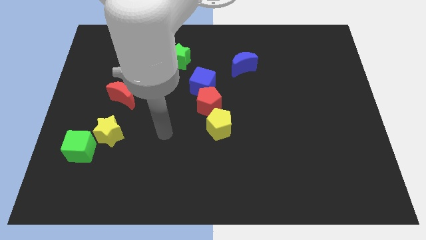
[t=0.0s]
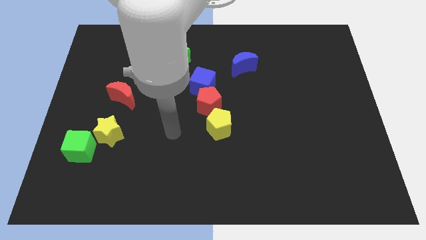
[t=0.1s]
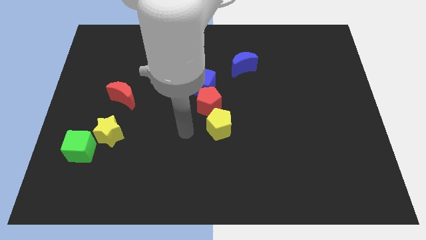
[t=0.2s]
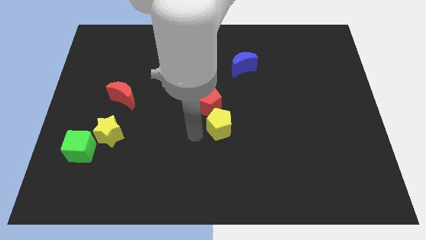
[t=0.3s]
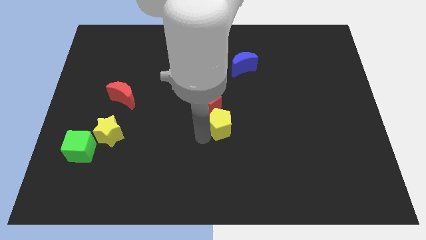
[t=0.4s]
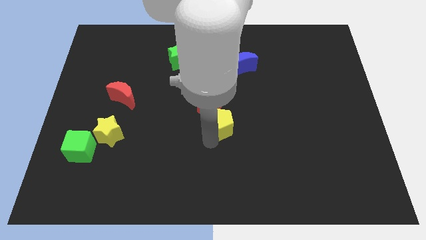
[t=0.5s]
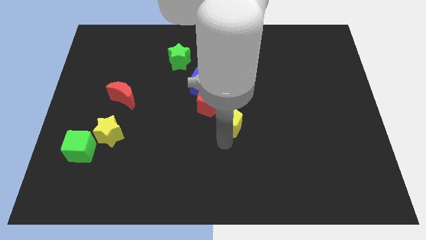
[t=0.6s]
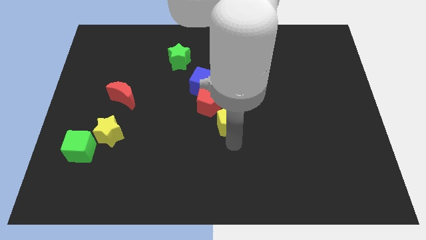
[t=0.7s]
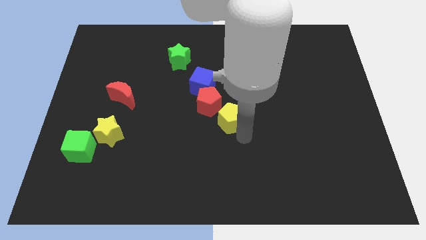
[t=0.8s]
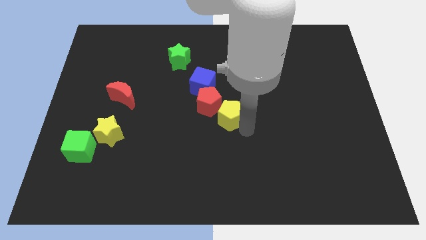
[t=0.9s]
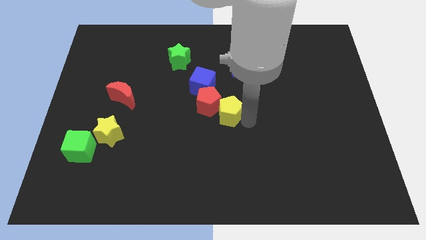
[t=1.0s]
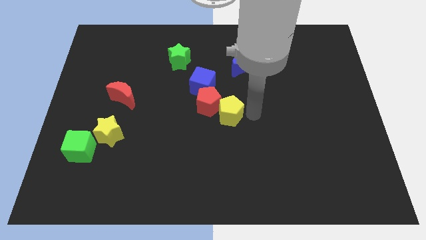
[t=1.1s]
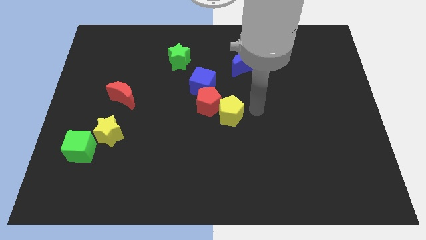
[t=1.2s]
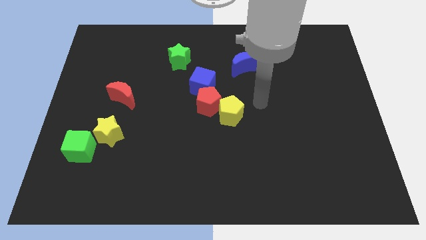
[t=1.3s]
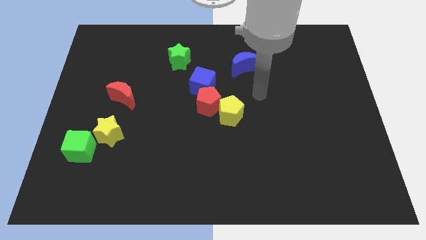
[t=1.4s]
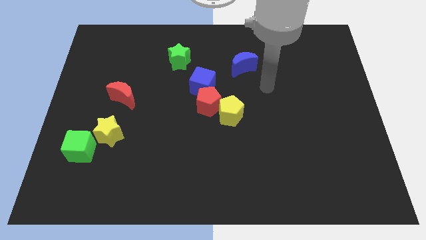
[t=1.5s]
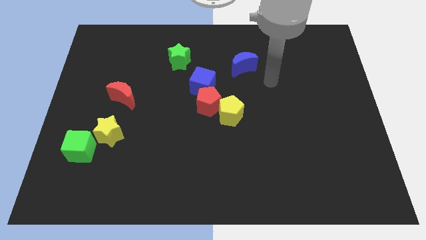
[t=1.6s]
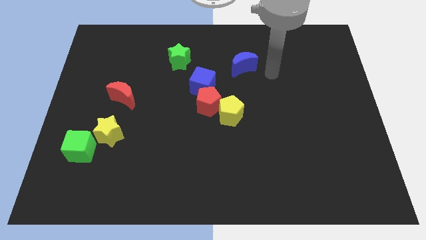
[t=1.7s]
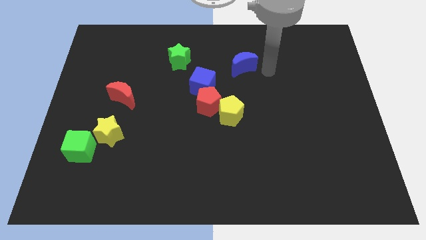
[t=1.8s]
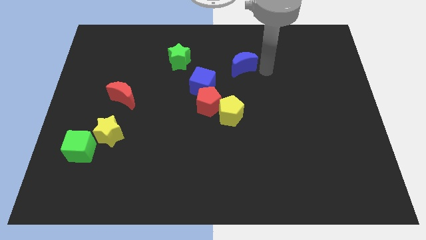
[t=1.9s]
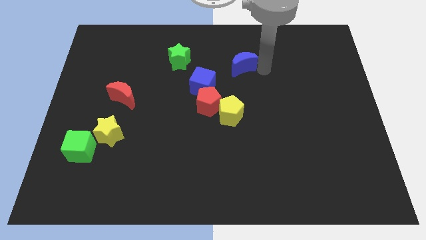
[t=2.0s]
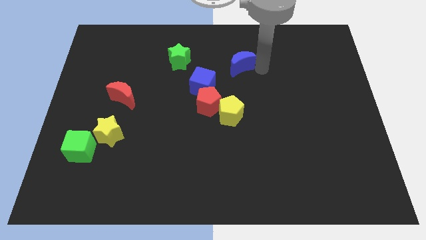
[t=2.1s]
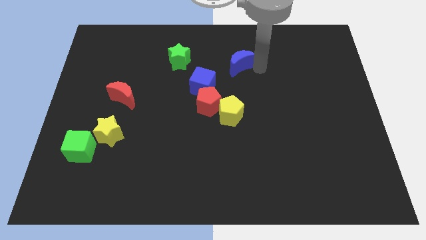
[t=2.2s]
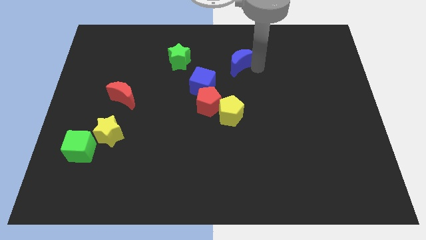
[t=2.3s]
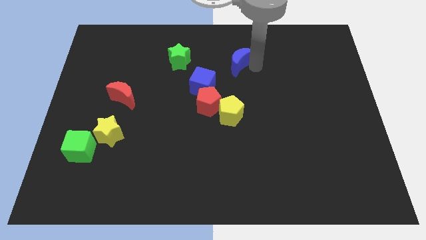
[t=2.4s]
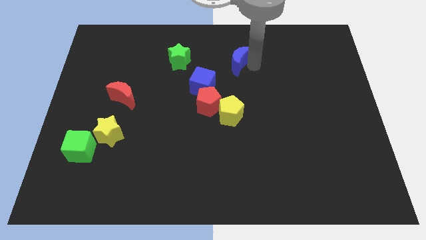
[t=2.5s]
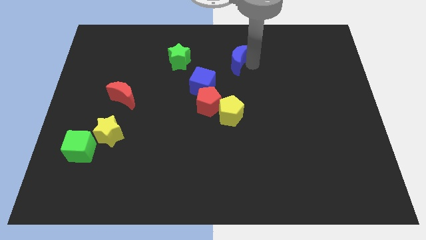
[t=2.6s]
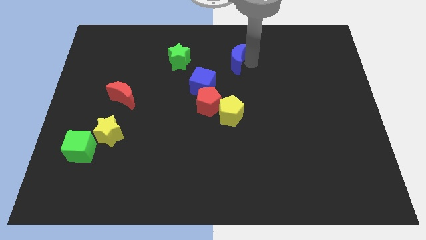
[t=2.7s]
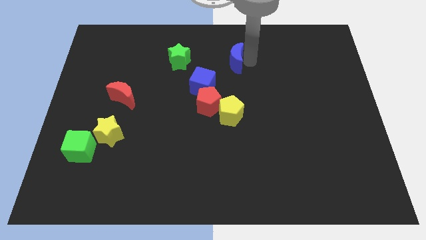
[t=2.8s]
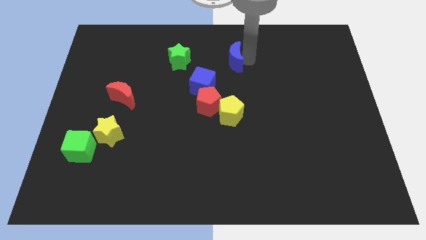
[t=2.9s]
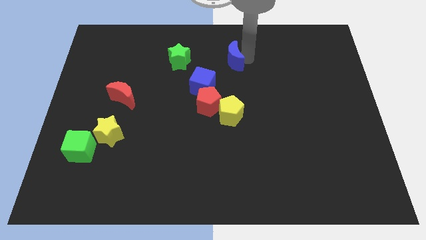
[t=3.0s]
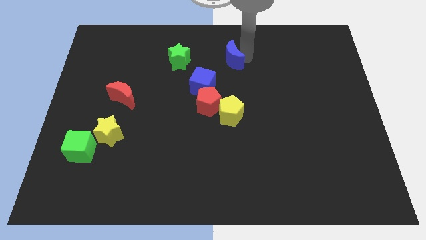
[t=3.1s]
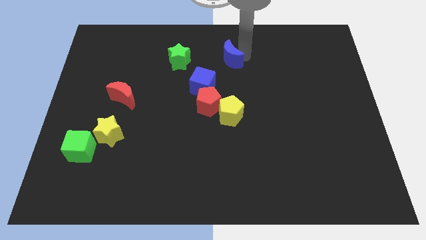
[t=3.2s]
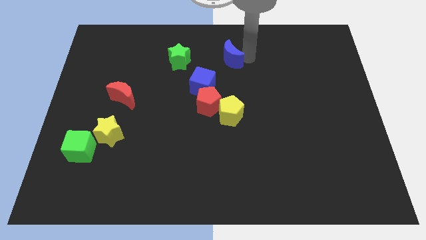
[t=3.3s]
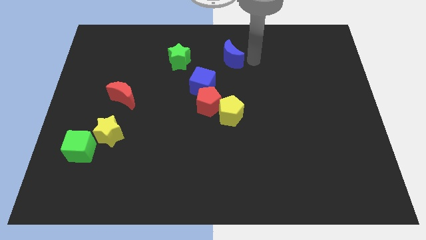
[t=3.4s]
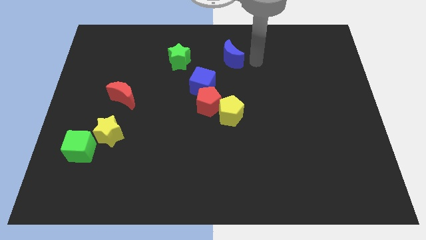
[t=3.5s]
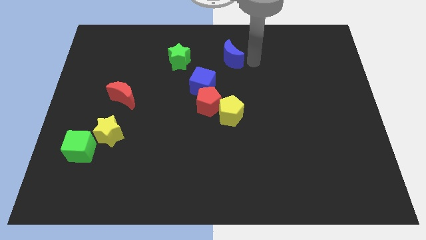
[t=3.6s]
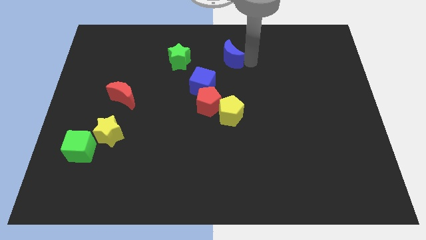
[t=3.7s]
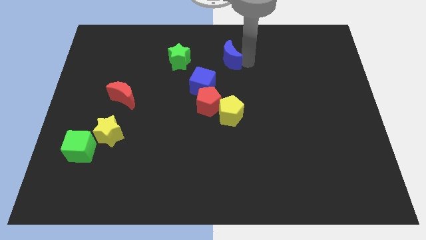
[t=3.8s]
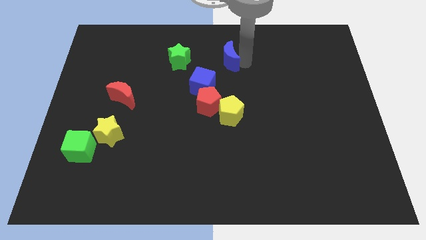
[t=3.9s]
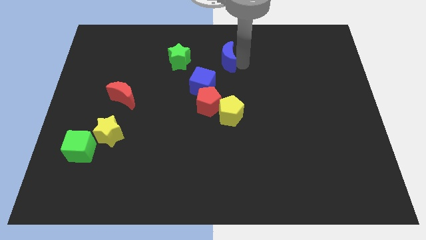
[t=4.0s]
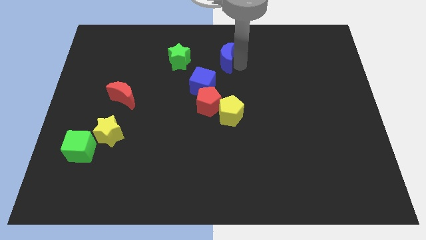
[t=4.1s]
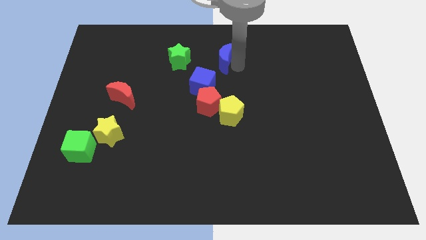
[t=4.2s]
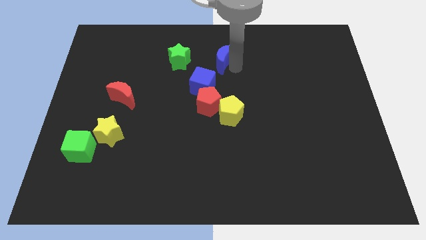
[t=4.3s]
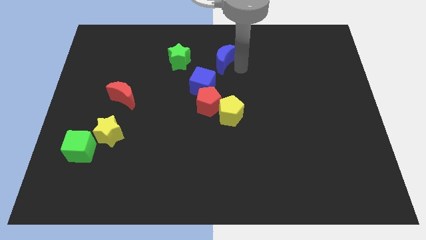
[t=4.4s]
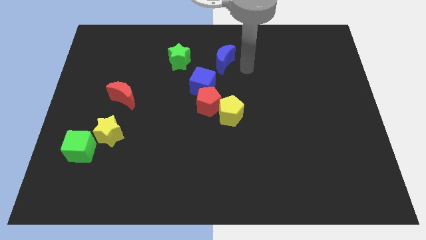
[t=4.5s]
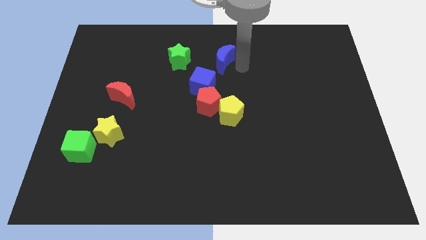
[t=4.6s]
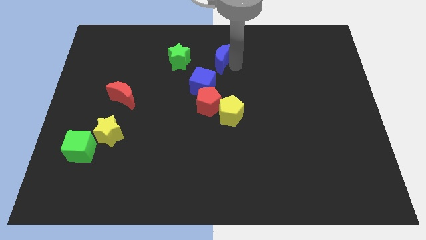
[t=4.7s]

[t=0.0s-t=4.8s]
slide the blue moon above the blue cube

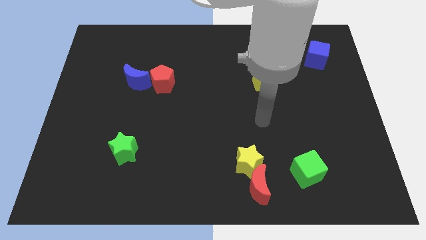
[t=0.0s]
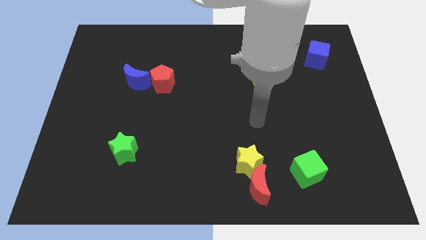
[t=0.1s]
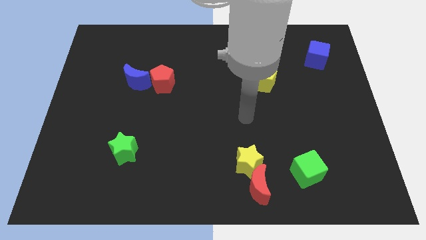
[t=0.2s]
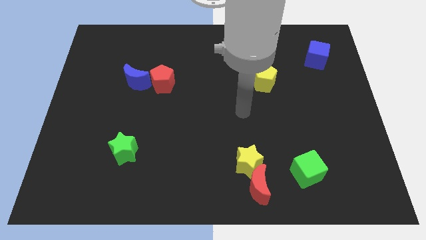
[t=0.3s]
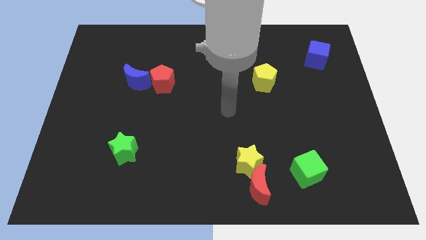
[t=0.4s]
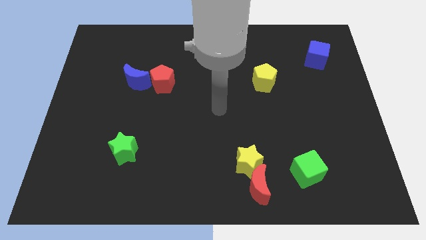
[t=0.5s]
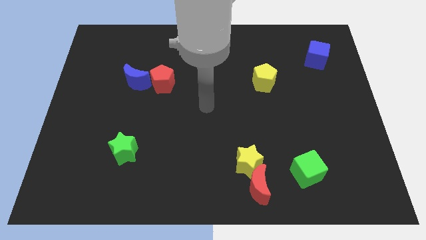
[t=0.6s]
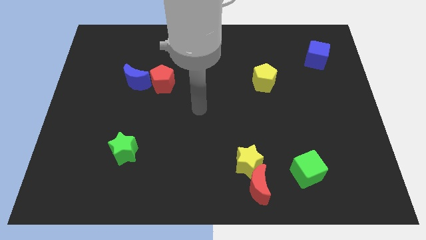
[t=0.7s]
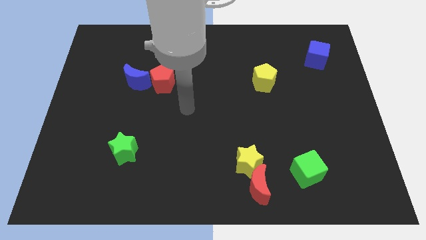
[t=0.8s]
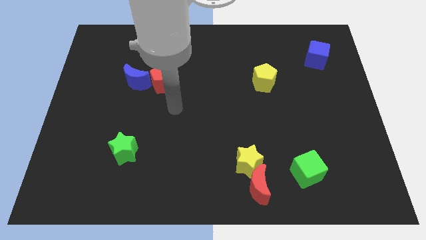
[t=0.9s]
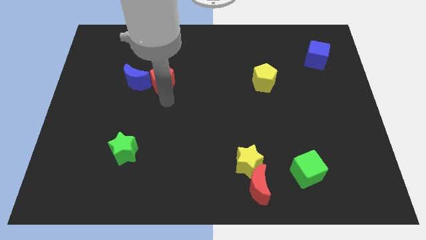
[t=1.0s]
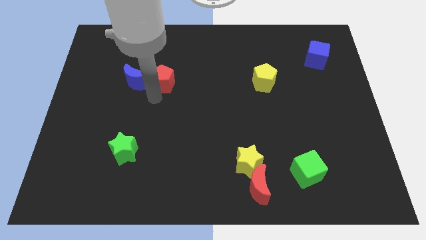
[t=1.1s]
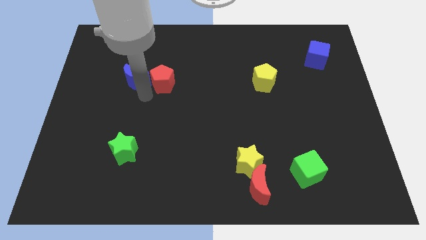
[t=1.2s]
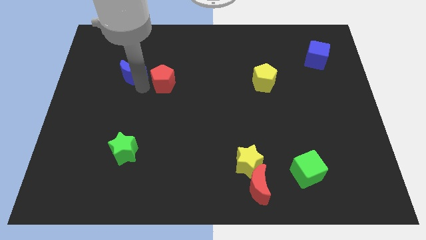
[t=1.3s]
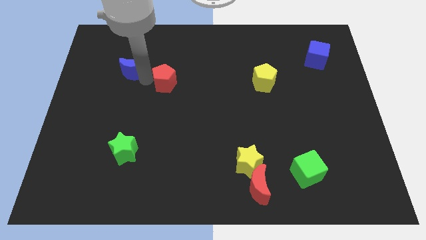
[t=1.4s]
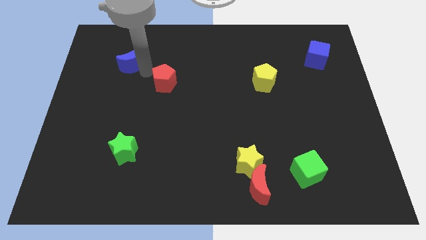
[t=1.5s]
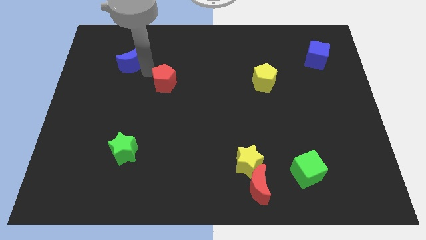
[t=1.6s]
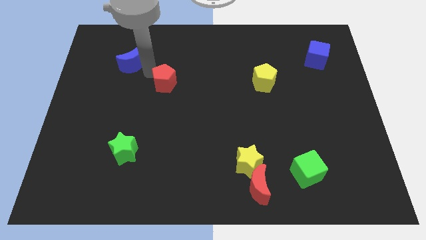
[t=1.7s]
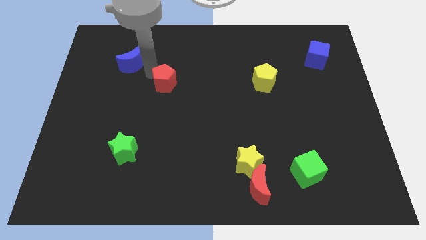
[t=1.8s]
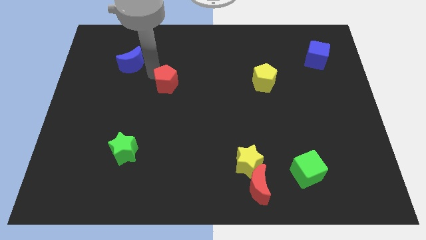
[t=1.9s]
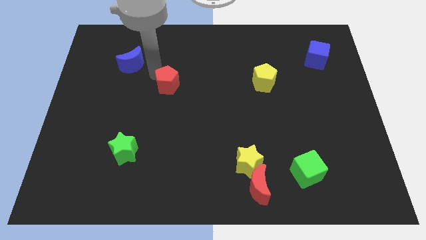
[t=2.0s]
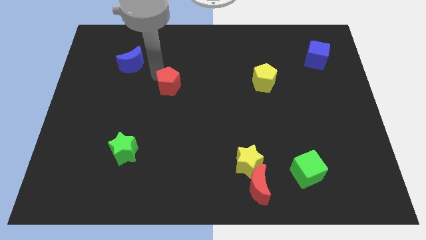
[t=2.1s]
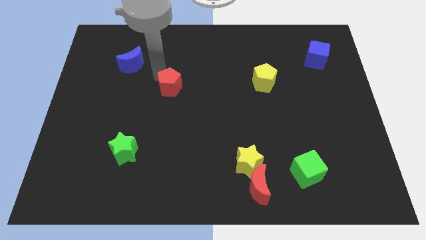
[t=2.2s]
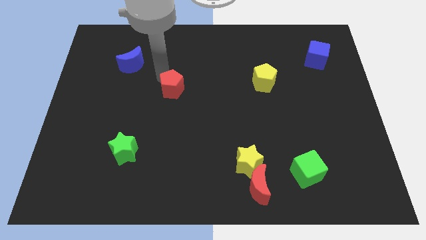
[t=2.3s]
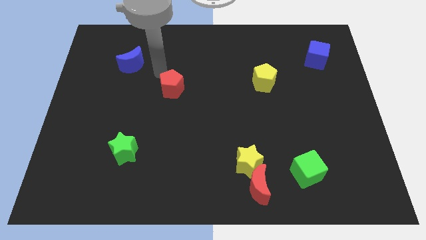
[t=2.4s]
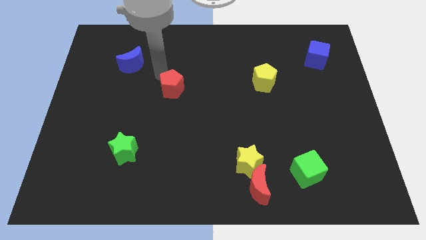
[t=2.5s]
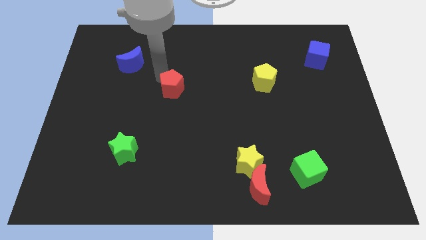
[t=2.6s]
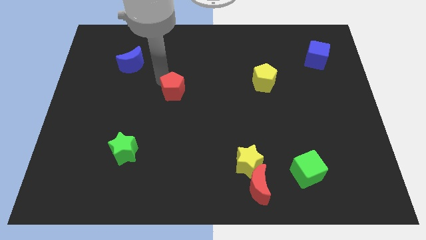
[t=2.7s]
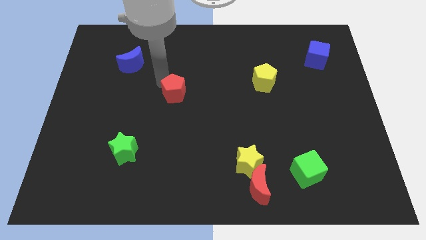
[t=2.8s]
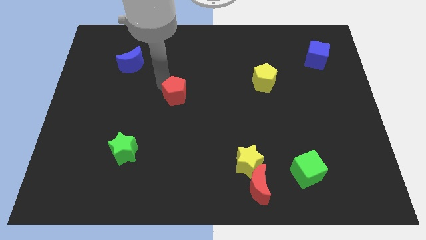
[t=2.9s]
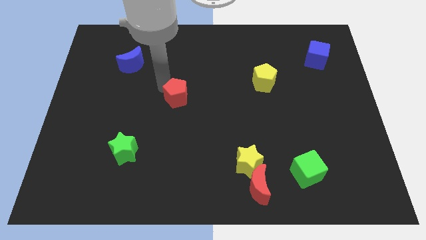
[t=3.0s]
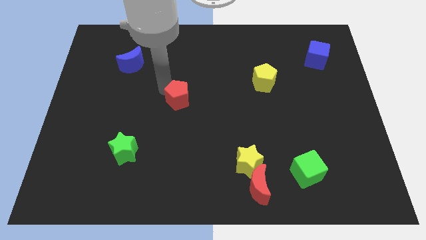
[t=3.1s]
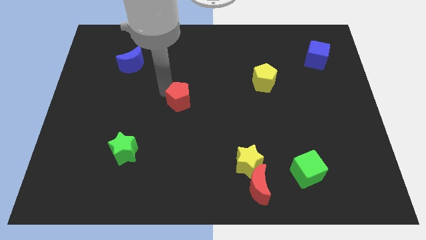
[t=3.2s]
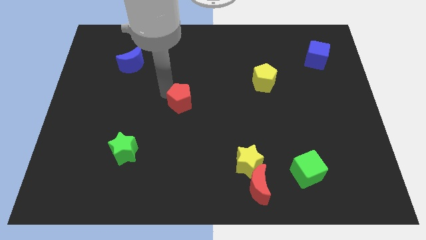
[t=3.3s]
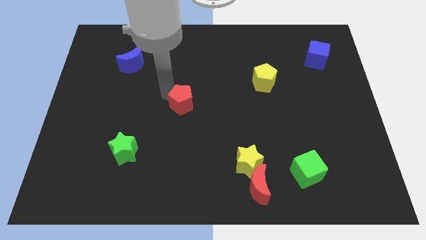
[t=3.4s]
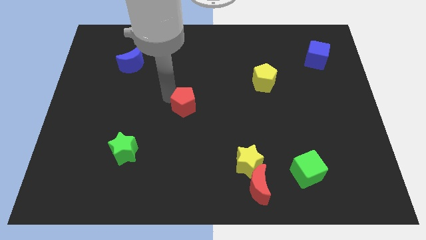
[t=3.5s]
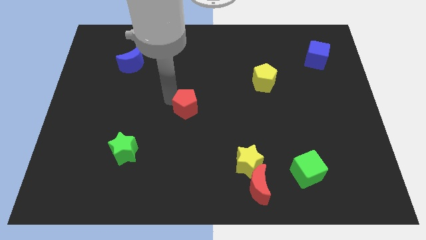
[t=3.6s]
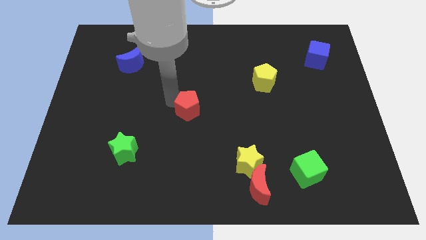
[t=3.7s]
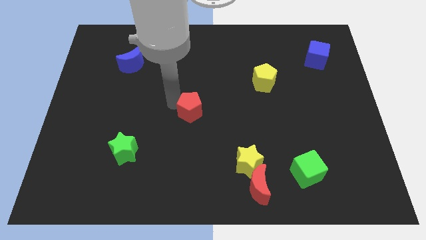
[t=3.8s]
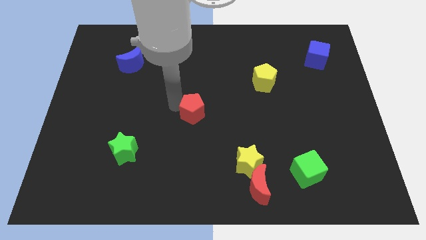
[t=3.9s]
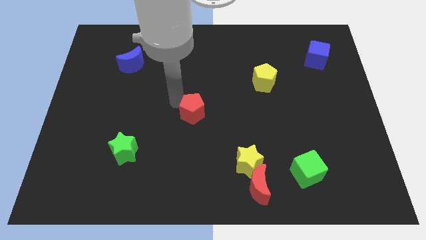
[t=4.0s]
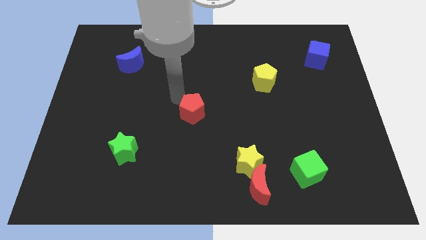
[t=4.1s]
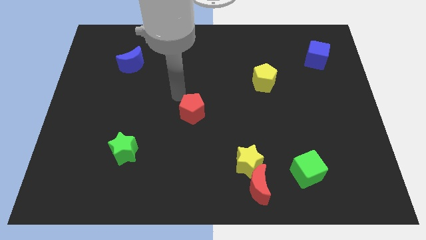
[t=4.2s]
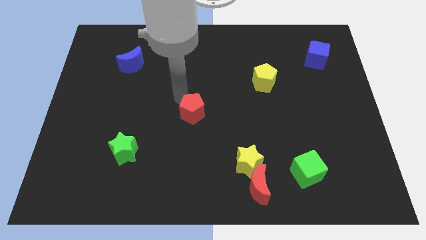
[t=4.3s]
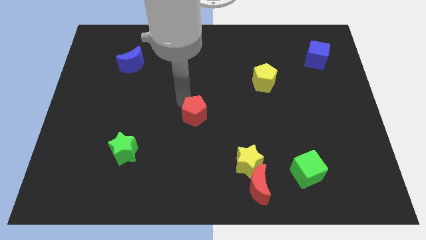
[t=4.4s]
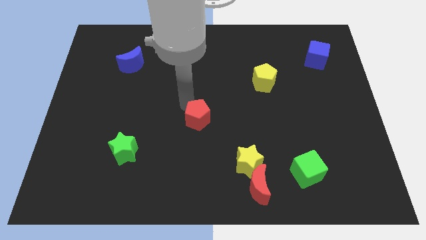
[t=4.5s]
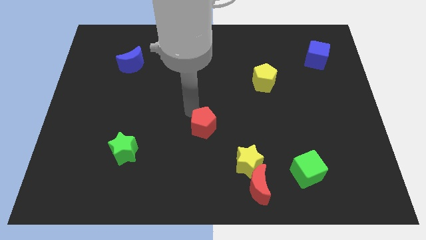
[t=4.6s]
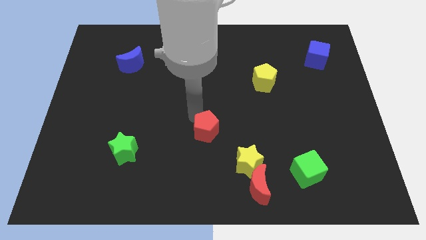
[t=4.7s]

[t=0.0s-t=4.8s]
move the red pentagon to the top left of the yellow star
